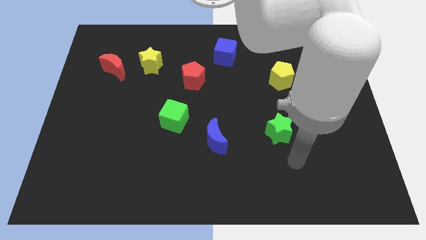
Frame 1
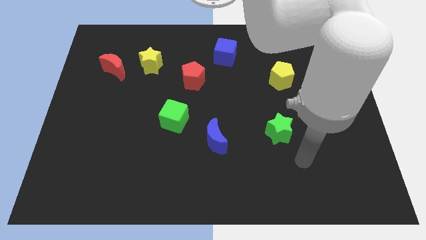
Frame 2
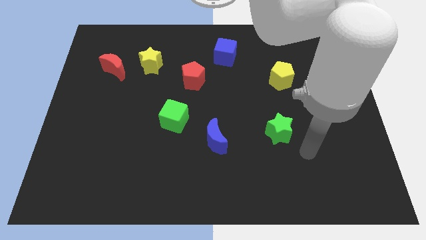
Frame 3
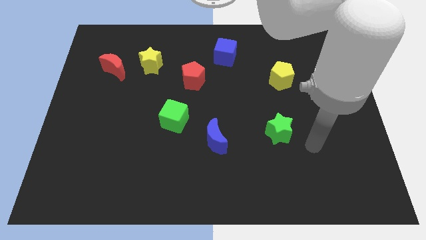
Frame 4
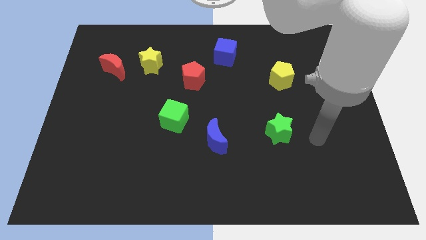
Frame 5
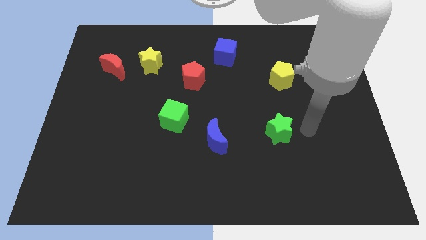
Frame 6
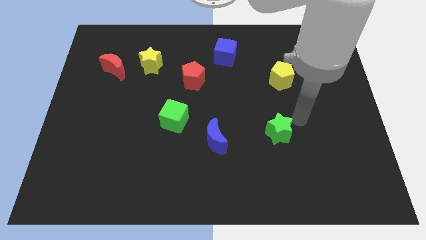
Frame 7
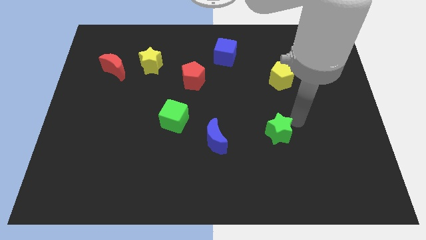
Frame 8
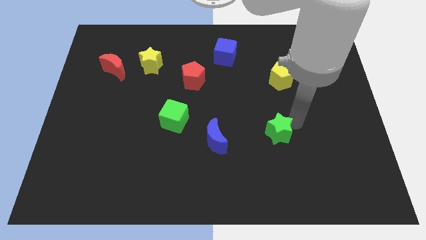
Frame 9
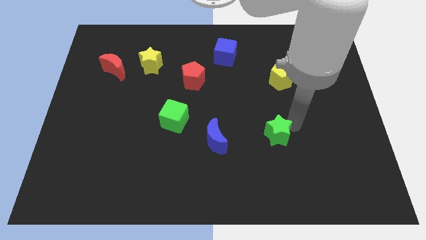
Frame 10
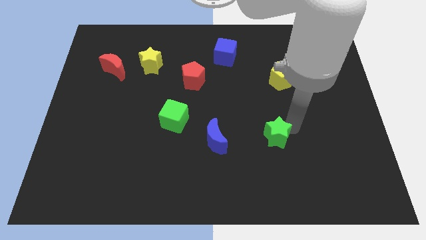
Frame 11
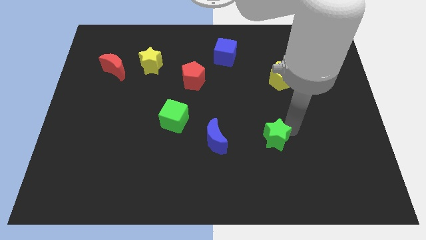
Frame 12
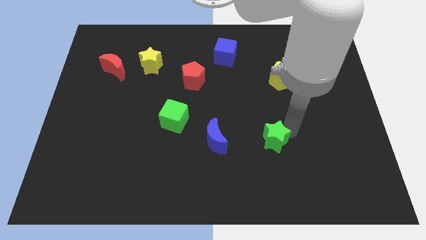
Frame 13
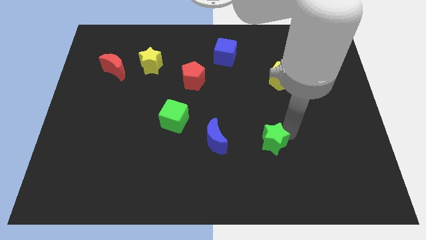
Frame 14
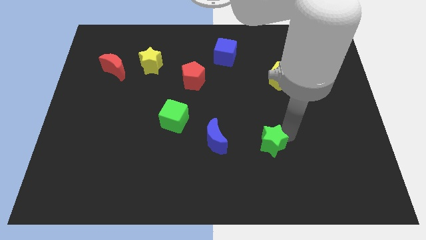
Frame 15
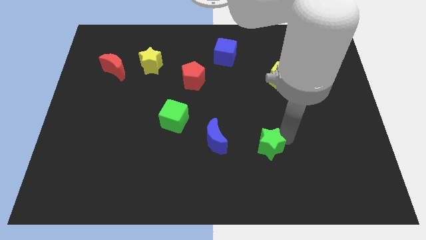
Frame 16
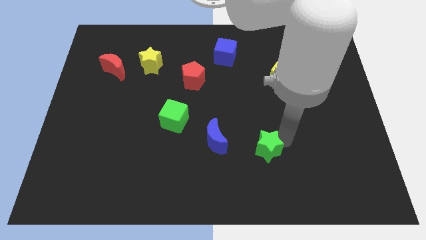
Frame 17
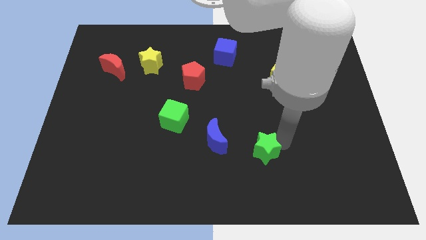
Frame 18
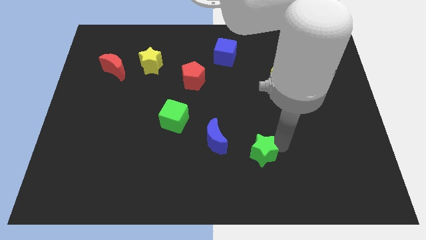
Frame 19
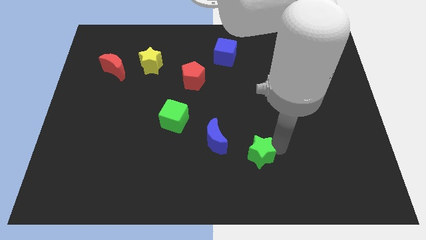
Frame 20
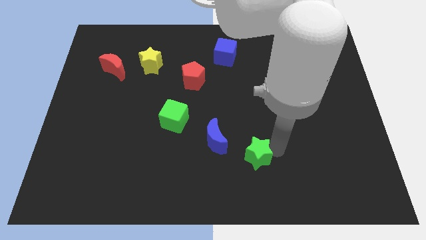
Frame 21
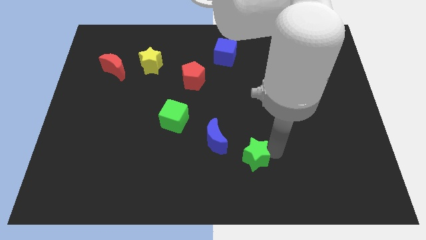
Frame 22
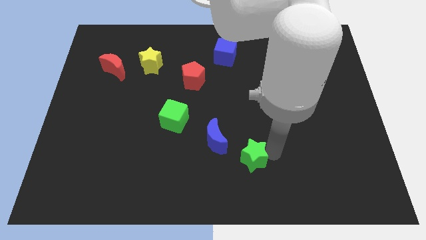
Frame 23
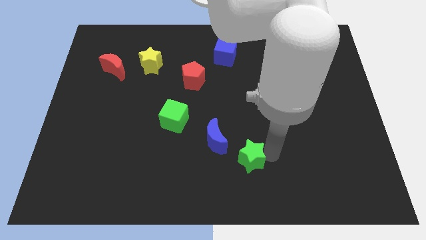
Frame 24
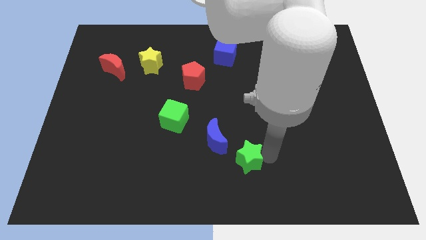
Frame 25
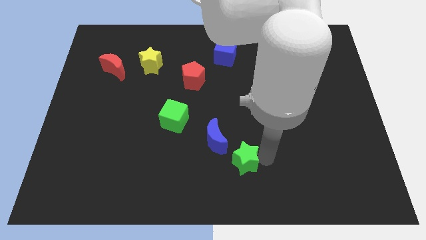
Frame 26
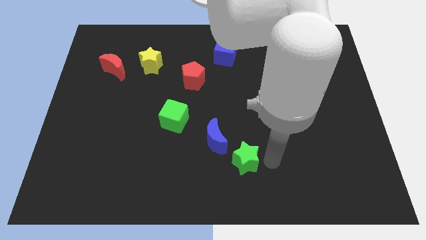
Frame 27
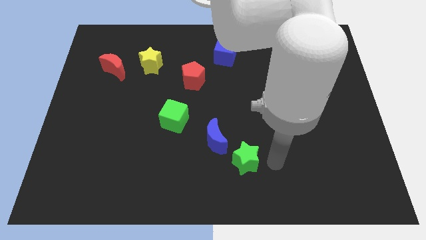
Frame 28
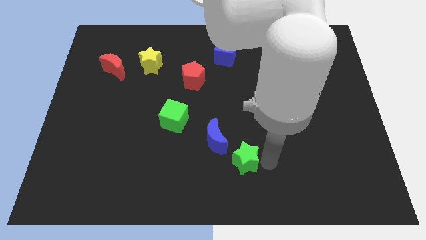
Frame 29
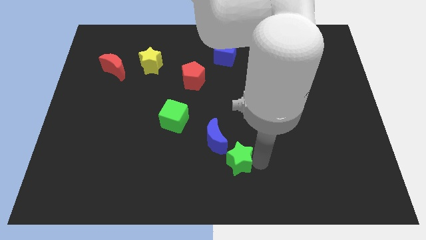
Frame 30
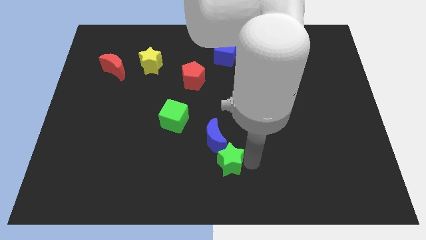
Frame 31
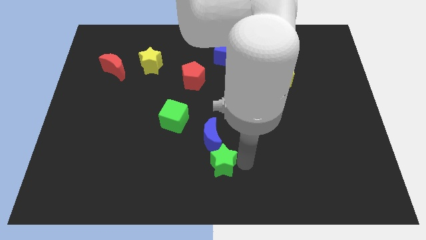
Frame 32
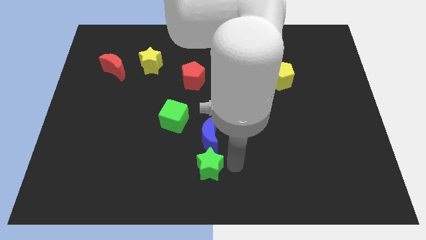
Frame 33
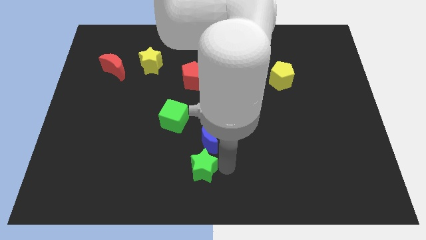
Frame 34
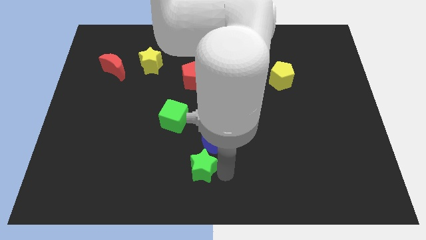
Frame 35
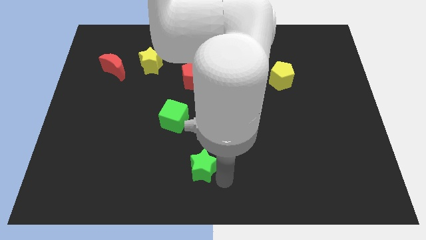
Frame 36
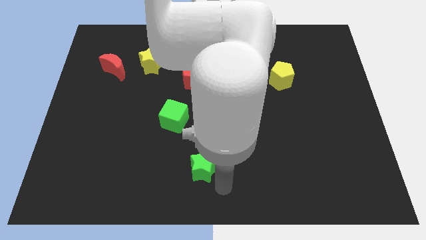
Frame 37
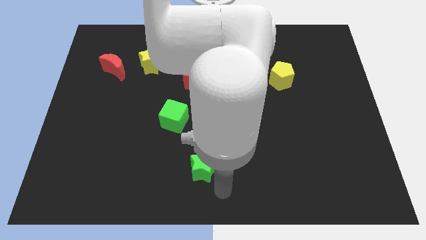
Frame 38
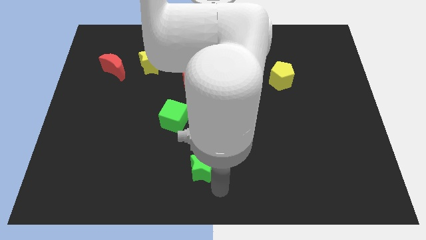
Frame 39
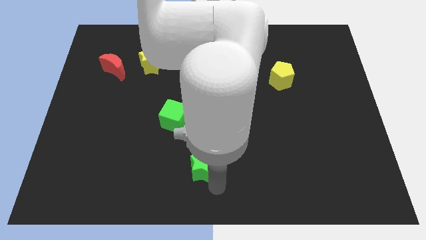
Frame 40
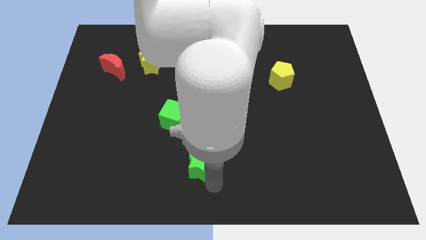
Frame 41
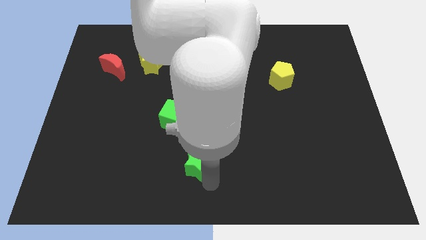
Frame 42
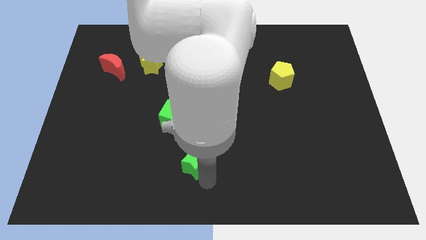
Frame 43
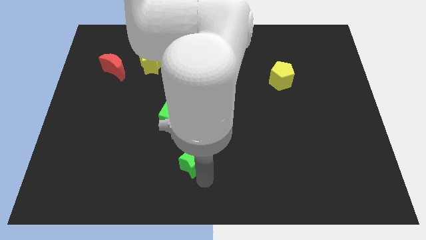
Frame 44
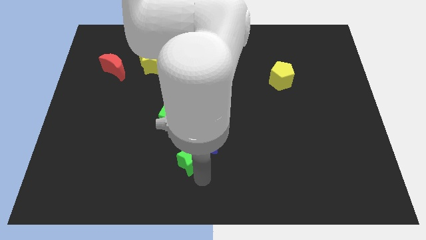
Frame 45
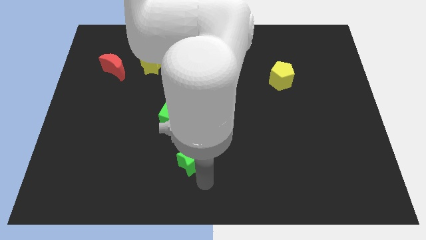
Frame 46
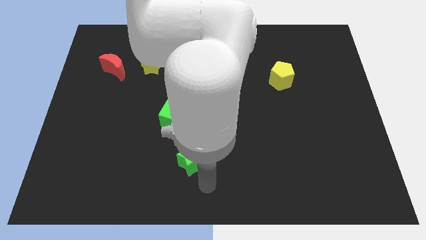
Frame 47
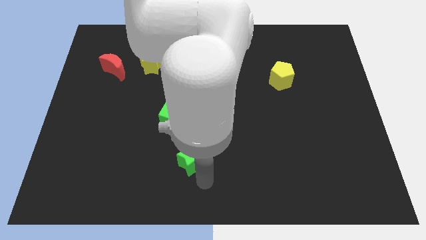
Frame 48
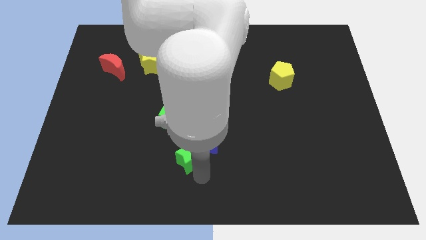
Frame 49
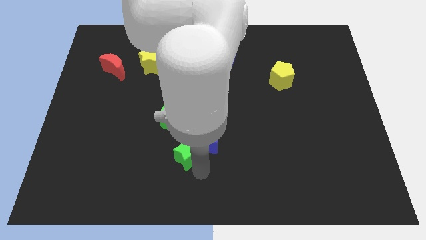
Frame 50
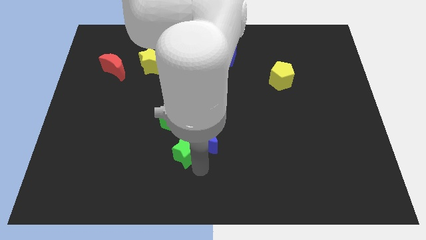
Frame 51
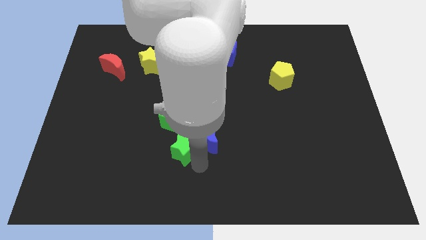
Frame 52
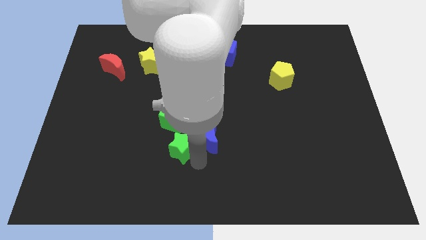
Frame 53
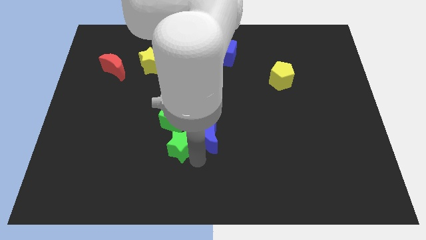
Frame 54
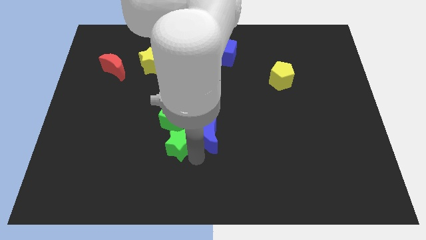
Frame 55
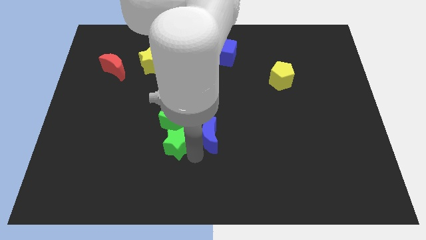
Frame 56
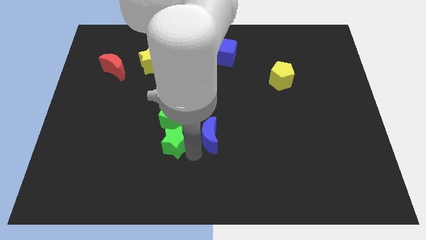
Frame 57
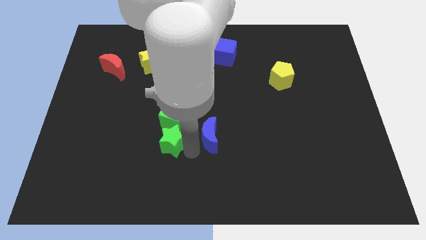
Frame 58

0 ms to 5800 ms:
slide the green star to the bottom left of the green cube

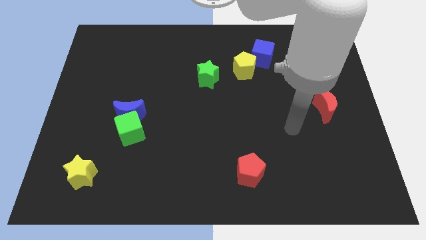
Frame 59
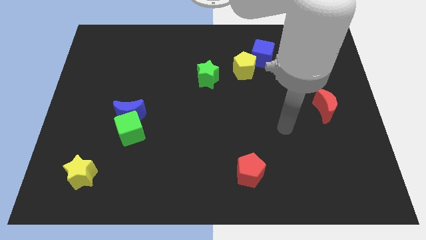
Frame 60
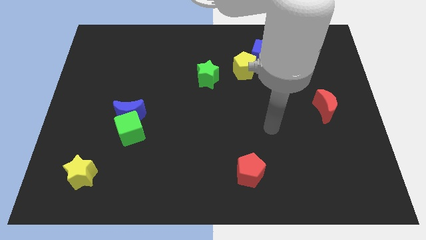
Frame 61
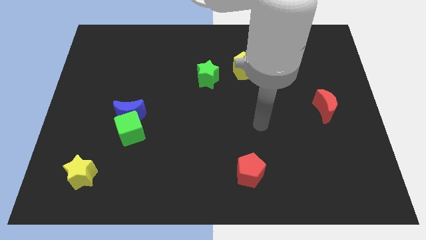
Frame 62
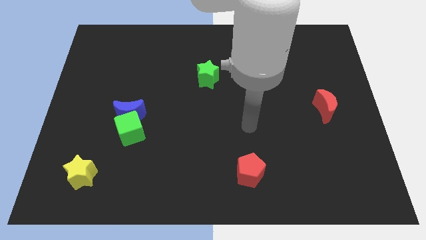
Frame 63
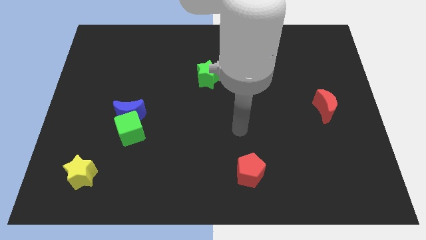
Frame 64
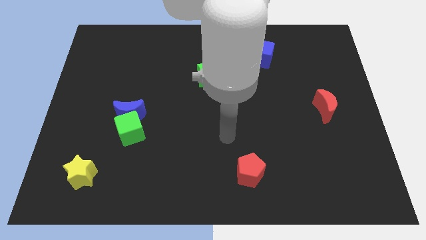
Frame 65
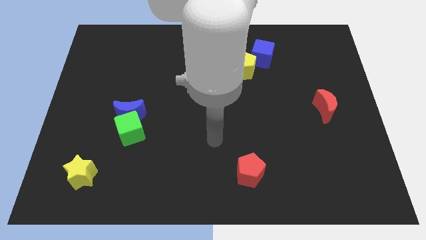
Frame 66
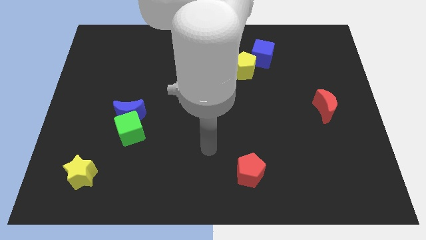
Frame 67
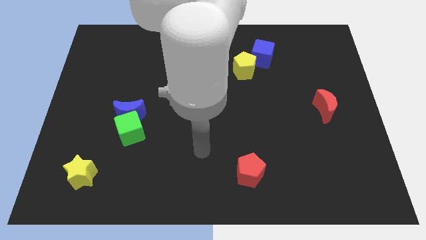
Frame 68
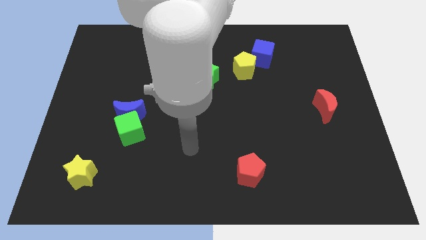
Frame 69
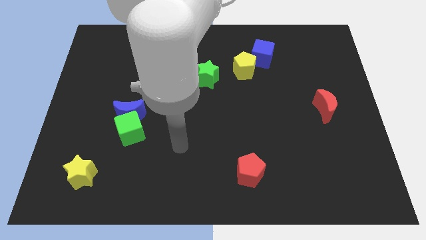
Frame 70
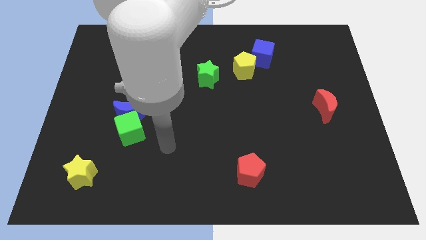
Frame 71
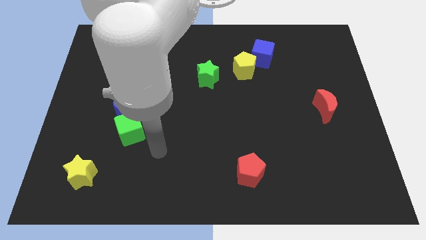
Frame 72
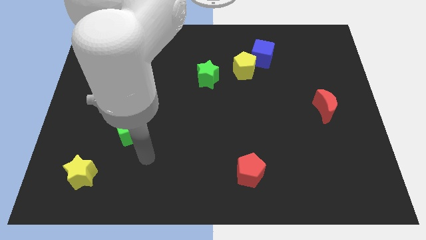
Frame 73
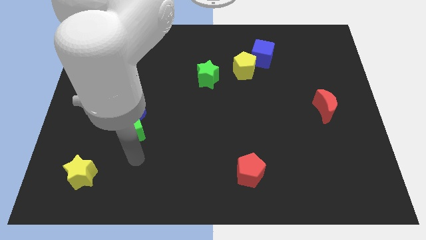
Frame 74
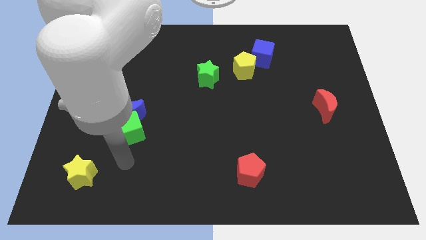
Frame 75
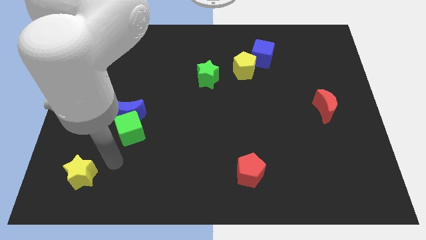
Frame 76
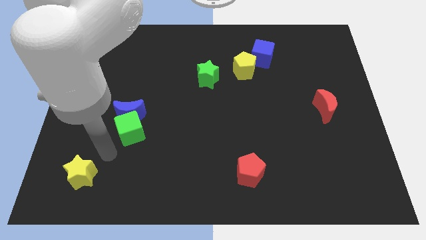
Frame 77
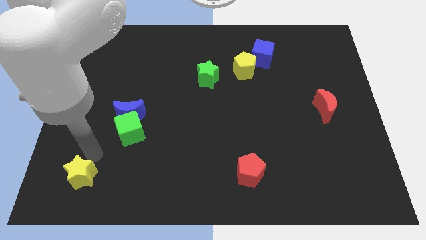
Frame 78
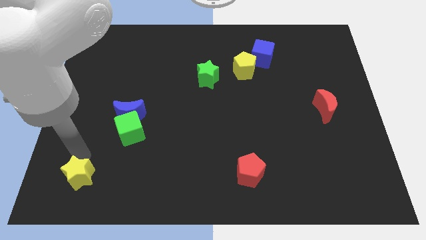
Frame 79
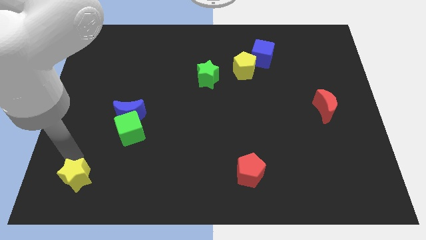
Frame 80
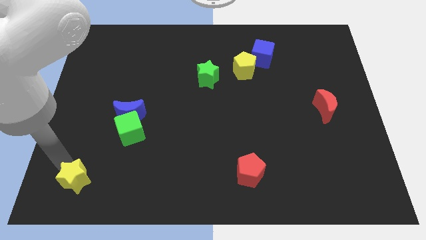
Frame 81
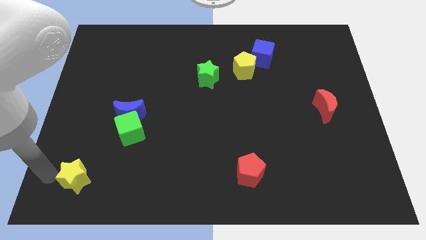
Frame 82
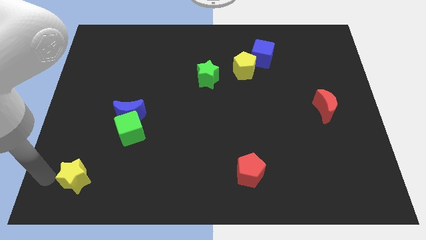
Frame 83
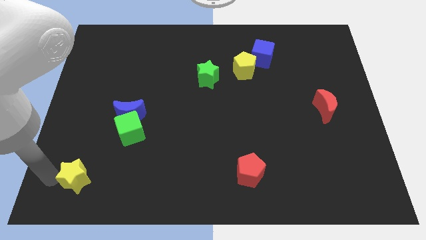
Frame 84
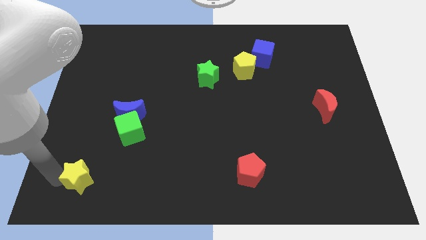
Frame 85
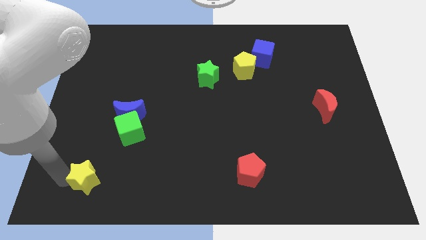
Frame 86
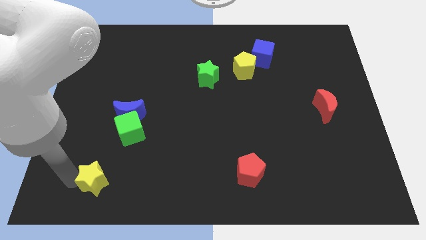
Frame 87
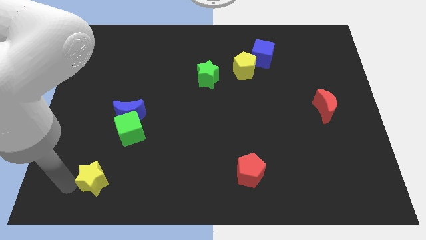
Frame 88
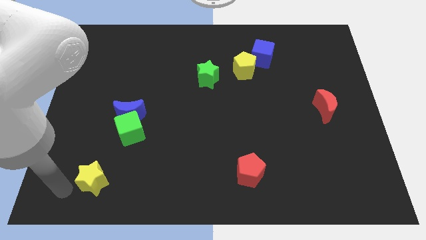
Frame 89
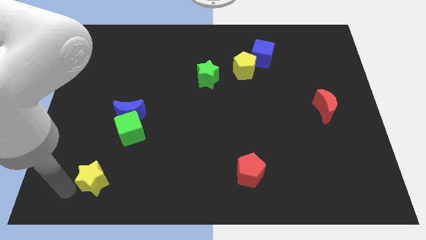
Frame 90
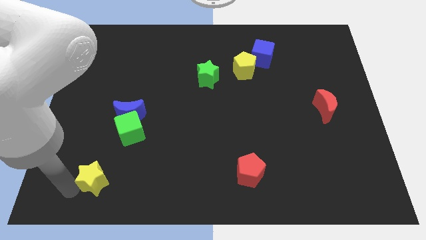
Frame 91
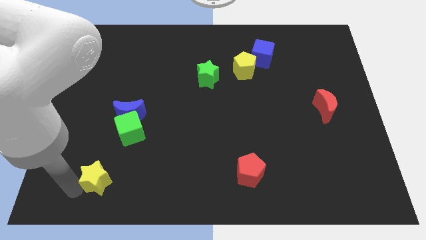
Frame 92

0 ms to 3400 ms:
slide the yellow star to the bottom side of the green cube
